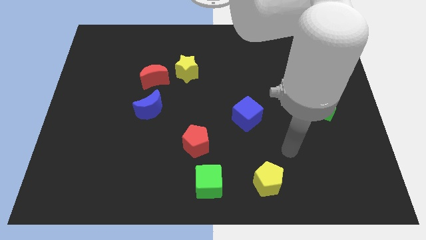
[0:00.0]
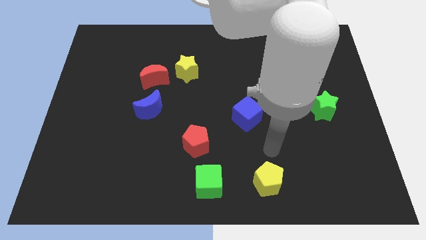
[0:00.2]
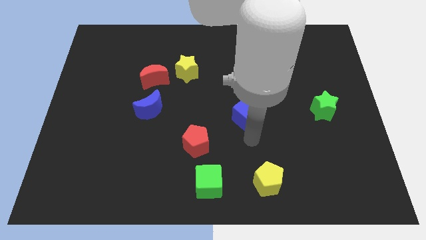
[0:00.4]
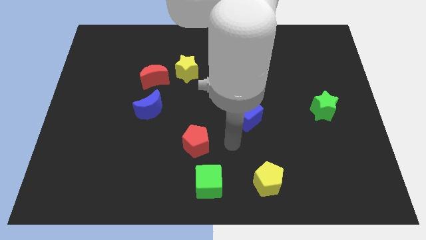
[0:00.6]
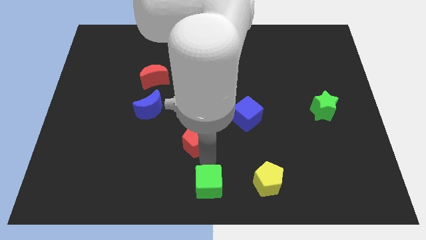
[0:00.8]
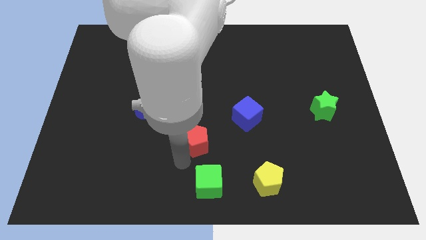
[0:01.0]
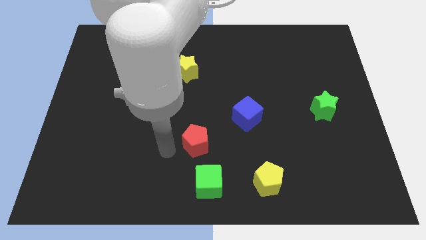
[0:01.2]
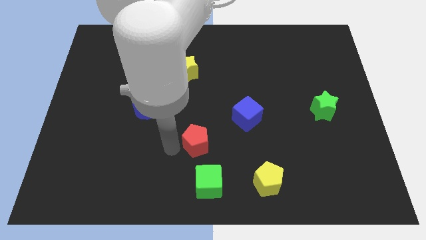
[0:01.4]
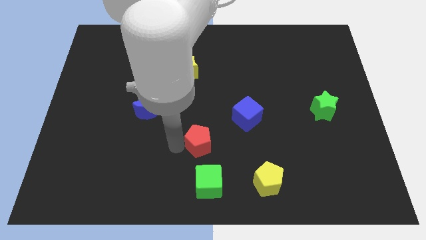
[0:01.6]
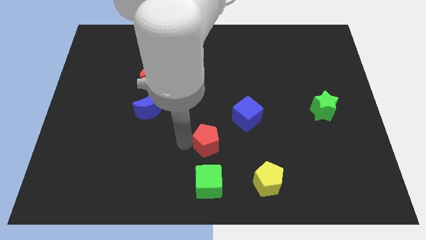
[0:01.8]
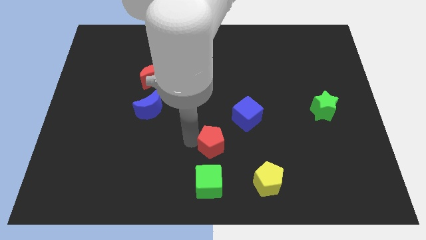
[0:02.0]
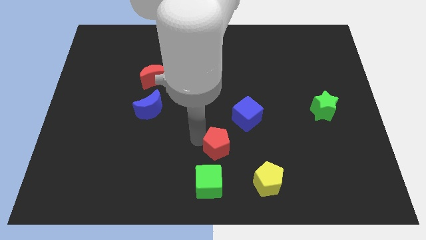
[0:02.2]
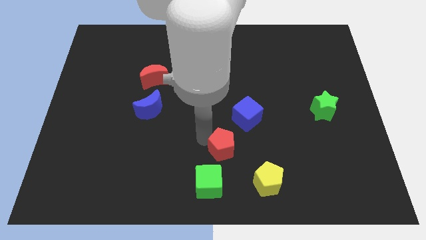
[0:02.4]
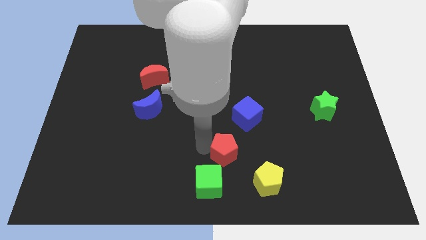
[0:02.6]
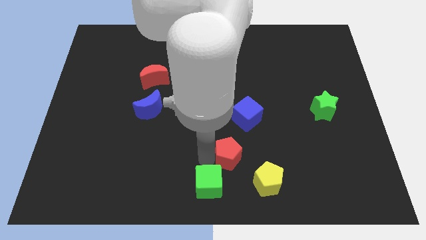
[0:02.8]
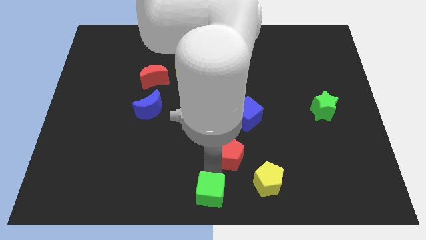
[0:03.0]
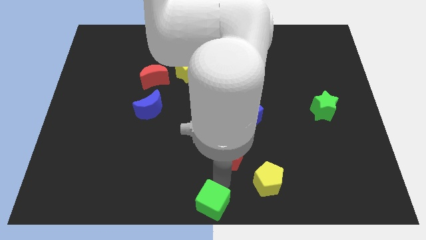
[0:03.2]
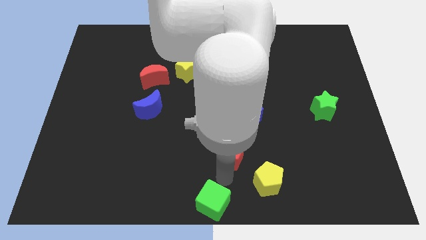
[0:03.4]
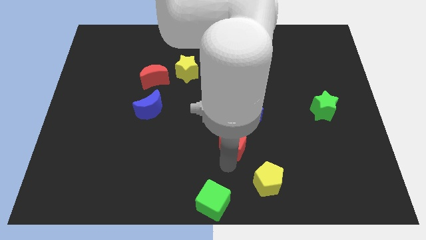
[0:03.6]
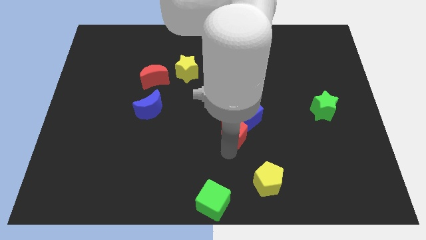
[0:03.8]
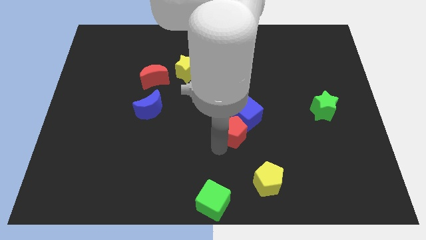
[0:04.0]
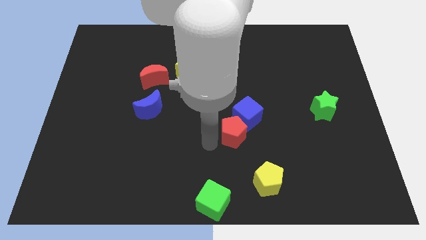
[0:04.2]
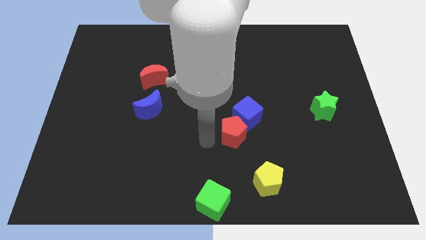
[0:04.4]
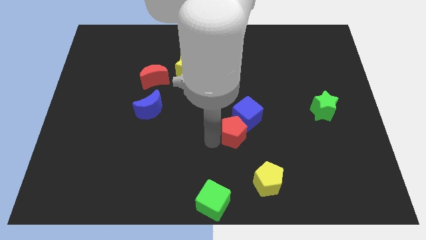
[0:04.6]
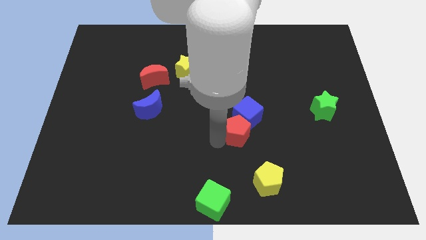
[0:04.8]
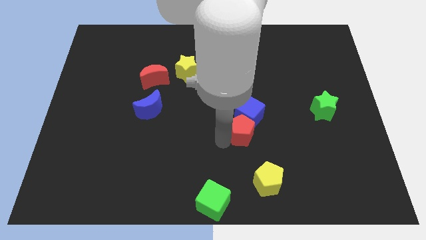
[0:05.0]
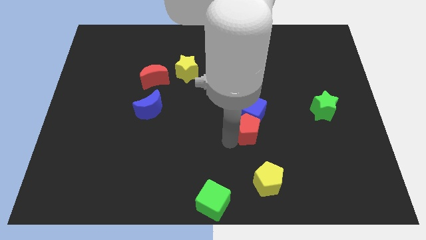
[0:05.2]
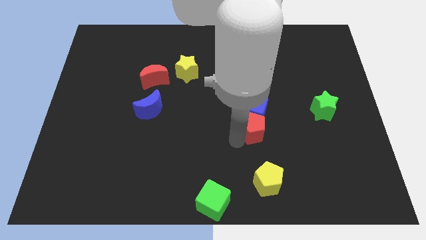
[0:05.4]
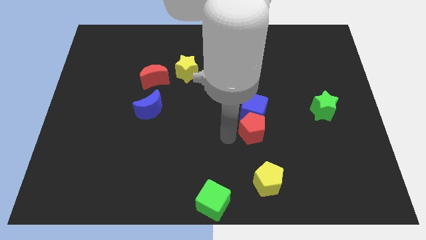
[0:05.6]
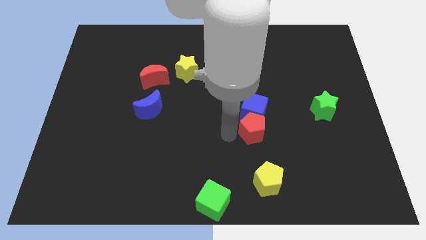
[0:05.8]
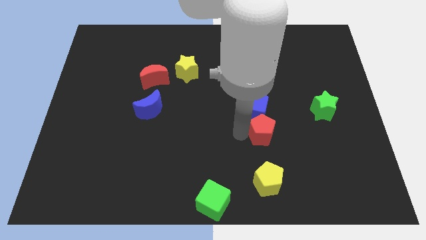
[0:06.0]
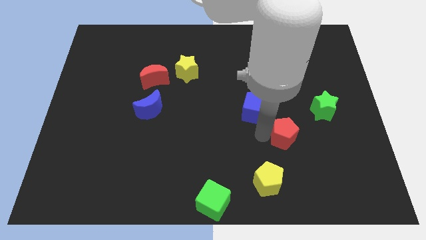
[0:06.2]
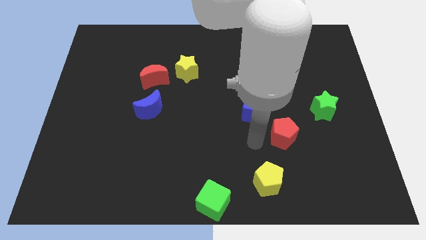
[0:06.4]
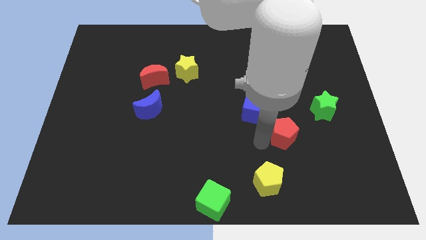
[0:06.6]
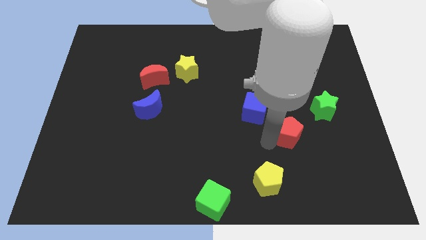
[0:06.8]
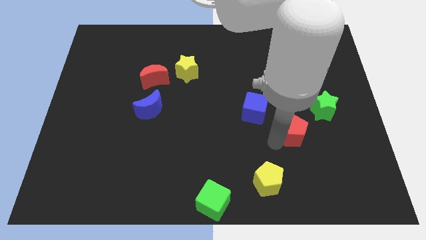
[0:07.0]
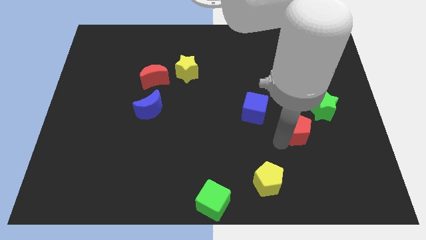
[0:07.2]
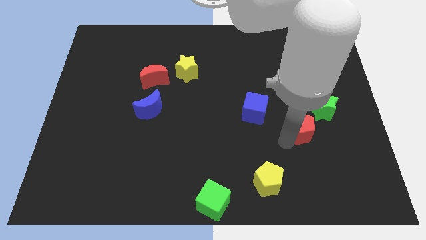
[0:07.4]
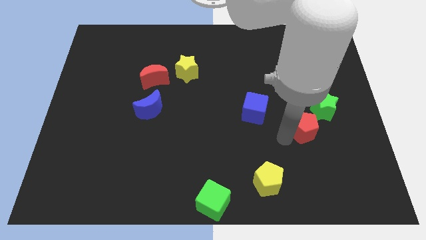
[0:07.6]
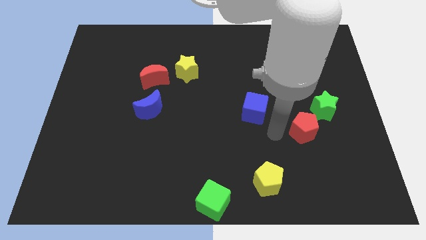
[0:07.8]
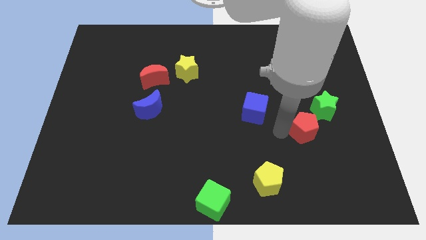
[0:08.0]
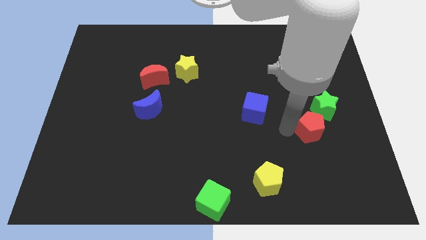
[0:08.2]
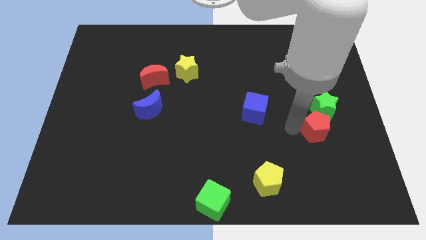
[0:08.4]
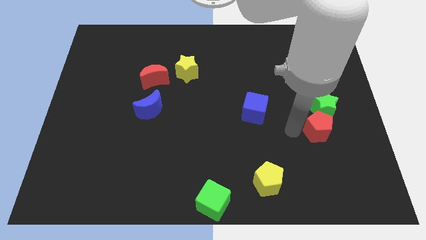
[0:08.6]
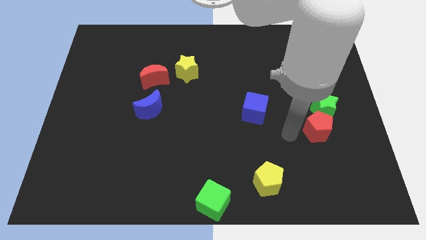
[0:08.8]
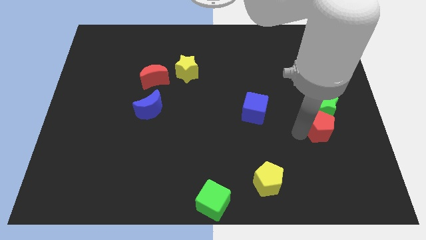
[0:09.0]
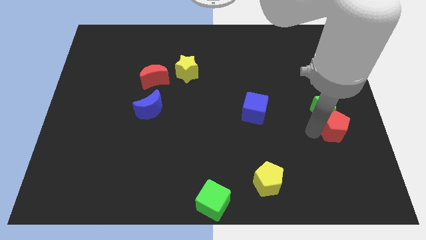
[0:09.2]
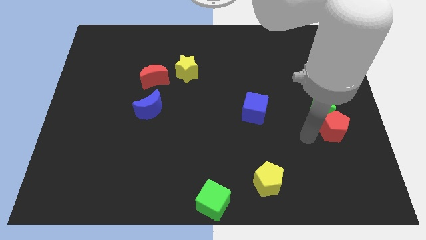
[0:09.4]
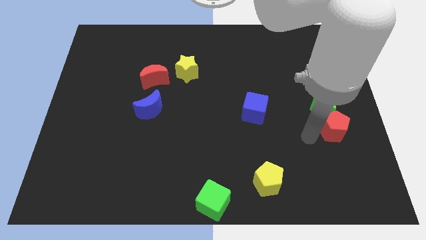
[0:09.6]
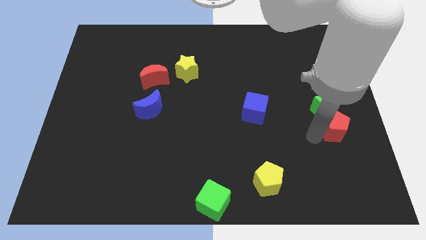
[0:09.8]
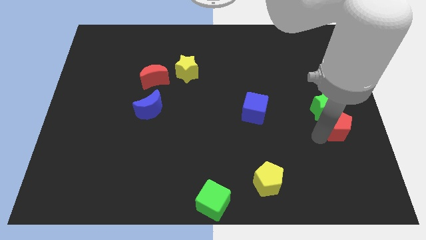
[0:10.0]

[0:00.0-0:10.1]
push the red pentagon to the right side

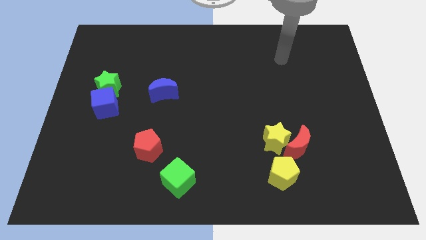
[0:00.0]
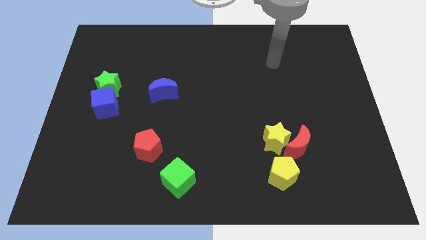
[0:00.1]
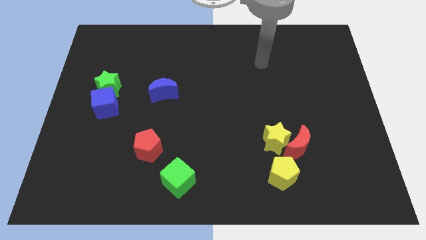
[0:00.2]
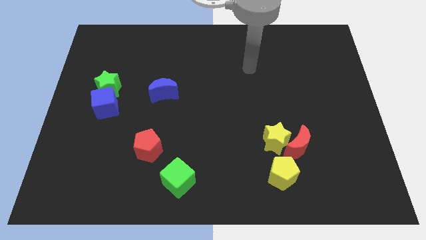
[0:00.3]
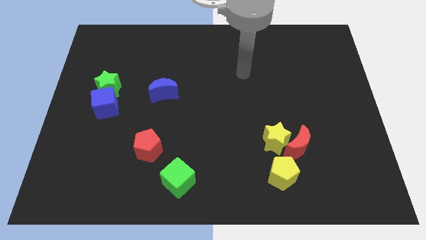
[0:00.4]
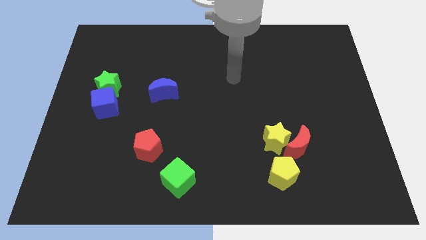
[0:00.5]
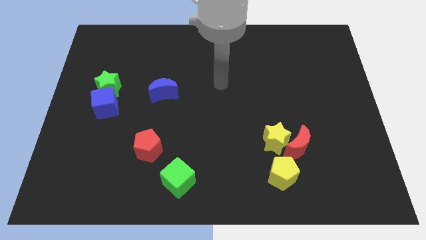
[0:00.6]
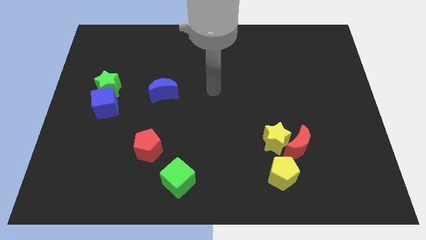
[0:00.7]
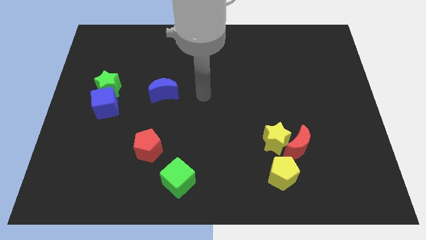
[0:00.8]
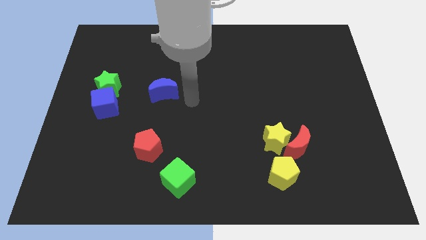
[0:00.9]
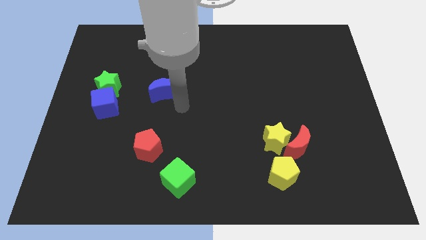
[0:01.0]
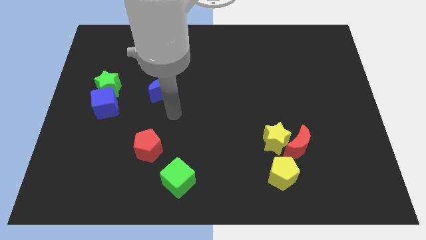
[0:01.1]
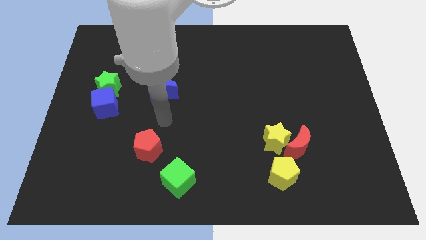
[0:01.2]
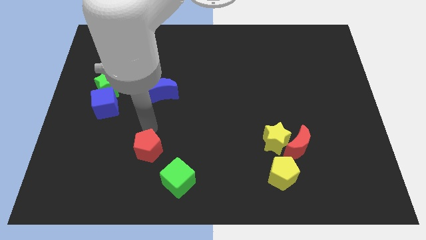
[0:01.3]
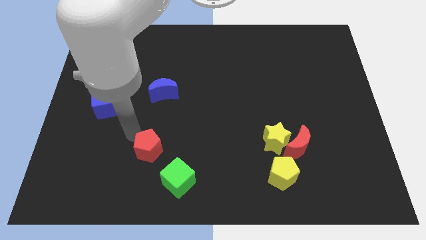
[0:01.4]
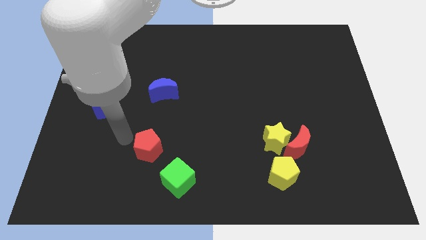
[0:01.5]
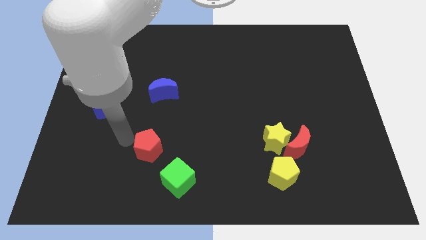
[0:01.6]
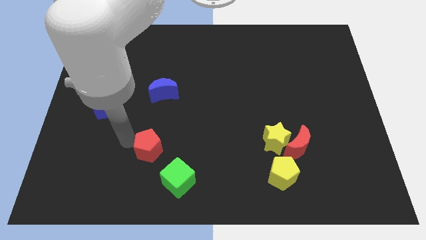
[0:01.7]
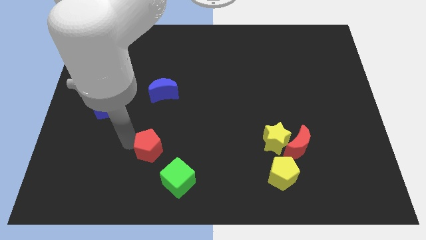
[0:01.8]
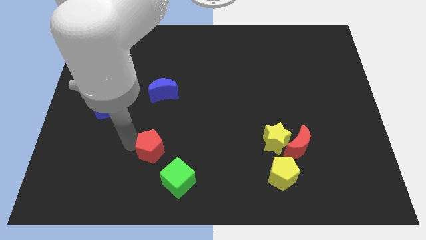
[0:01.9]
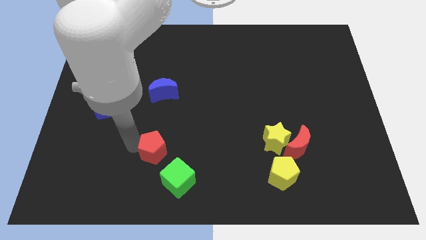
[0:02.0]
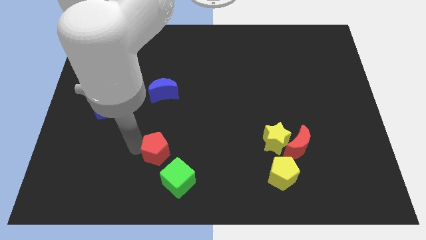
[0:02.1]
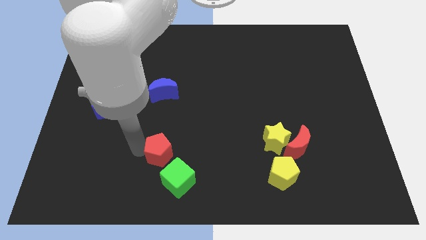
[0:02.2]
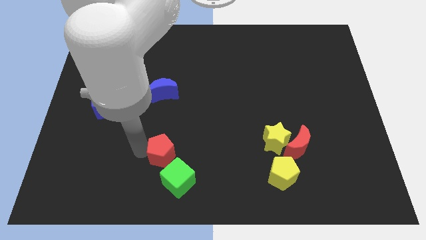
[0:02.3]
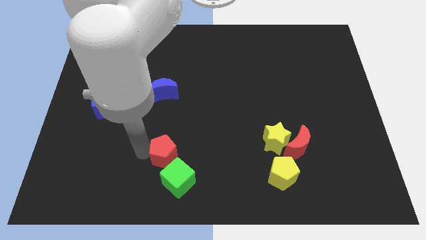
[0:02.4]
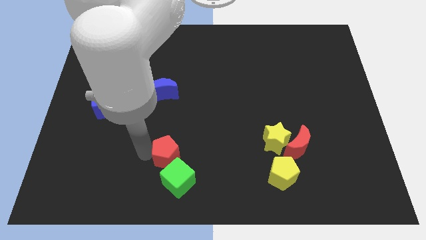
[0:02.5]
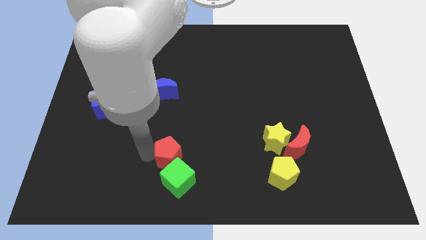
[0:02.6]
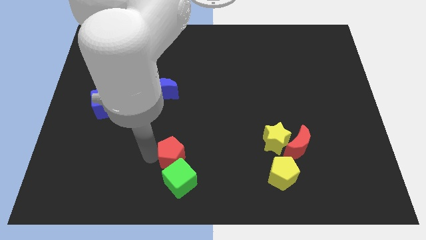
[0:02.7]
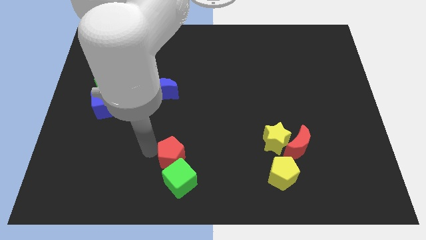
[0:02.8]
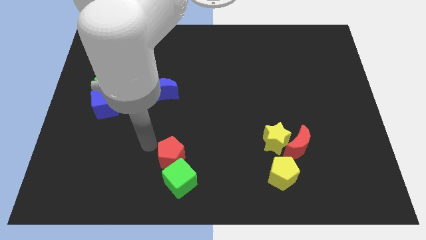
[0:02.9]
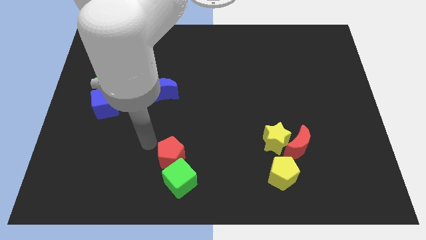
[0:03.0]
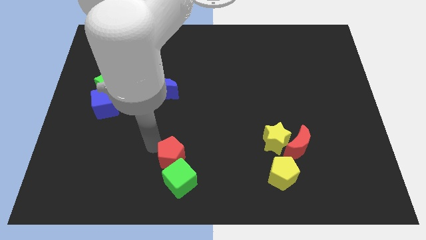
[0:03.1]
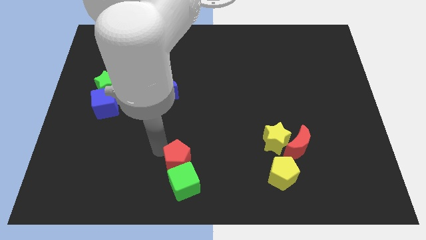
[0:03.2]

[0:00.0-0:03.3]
push the red pentagon to the bottom
